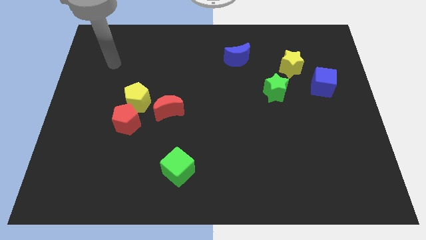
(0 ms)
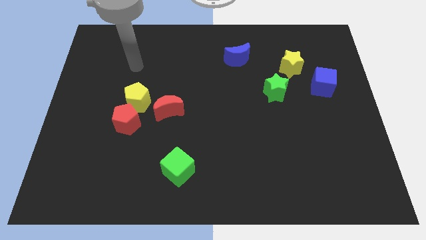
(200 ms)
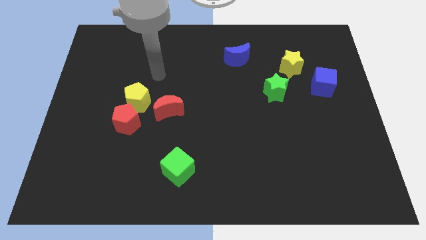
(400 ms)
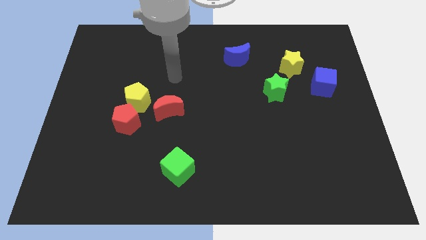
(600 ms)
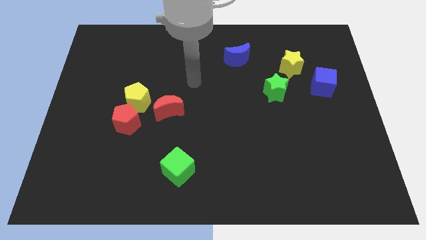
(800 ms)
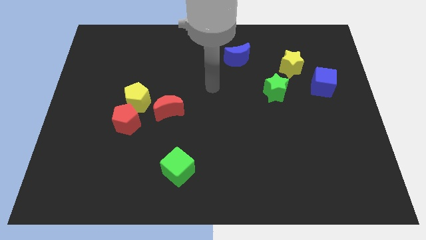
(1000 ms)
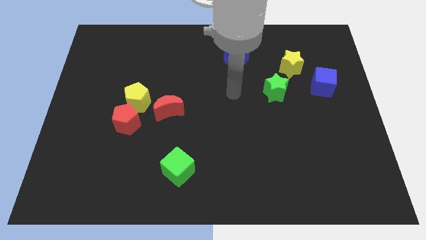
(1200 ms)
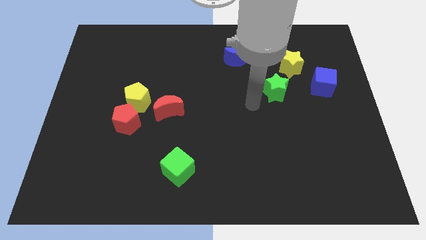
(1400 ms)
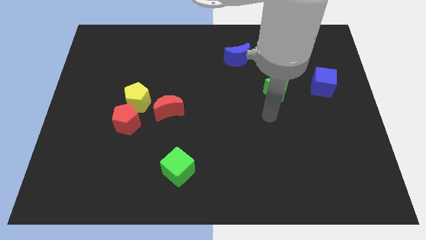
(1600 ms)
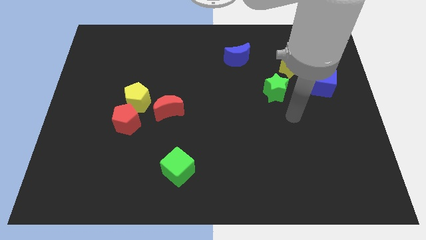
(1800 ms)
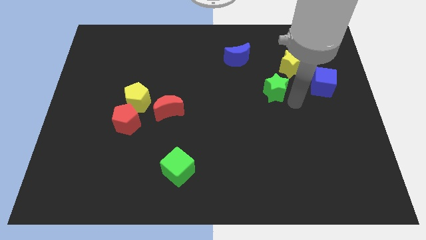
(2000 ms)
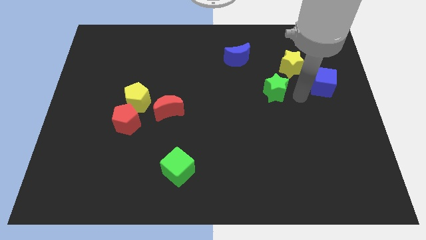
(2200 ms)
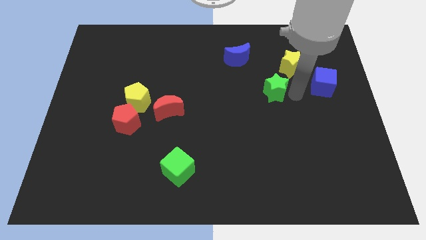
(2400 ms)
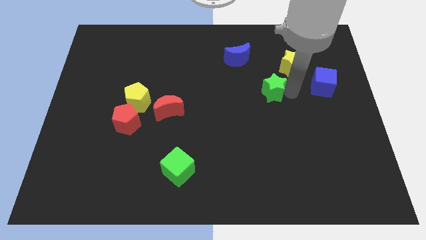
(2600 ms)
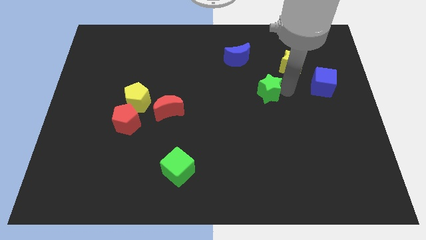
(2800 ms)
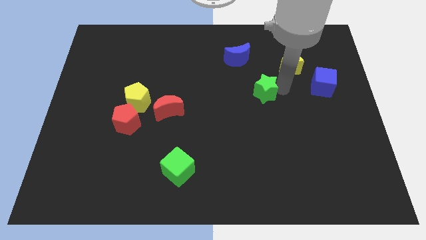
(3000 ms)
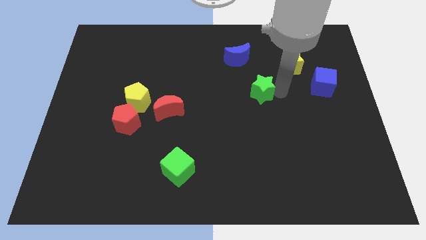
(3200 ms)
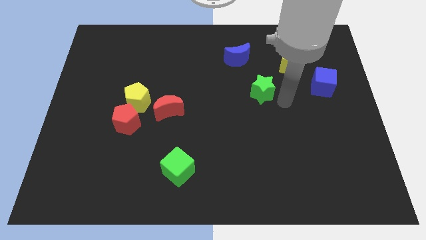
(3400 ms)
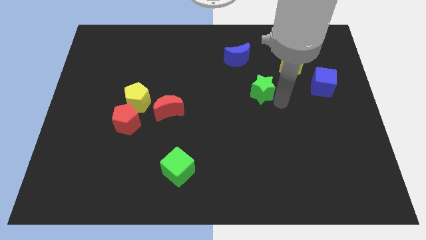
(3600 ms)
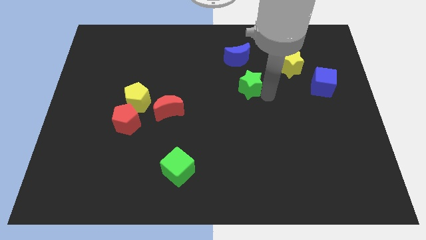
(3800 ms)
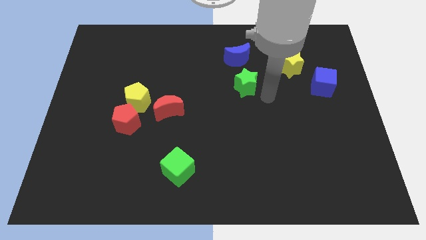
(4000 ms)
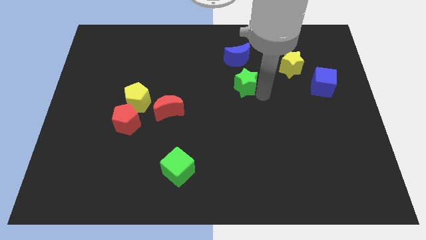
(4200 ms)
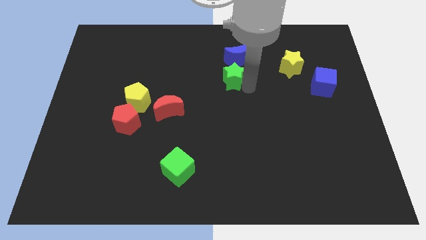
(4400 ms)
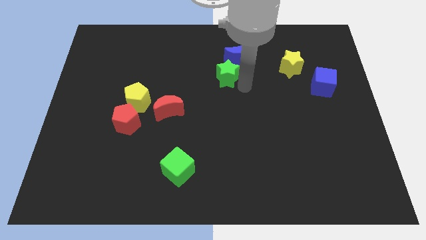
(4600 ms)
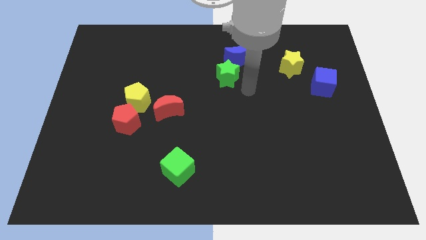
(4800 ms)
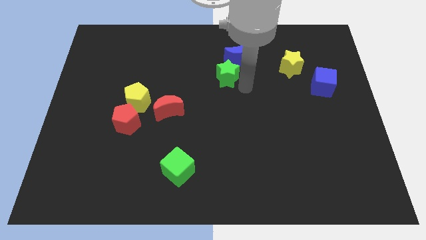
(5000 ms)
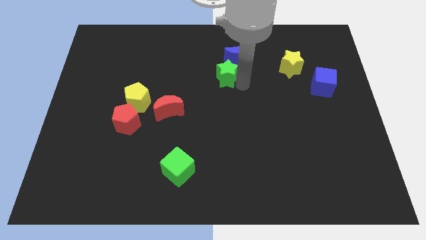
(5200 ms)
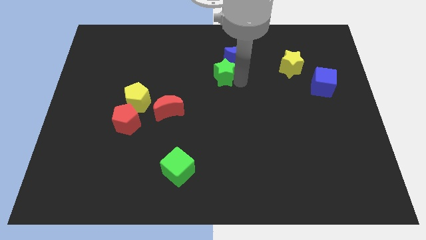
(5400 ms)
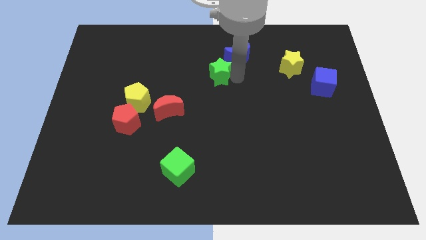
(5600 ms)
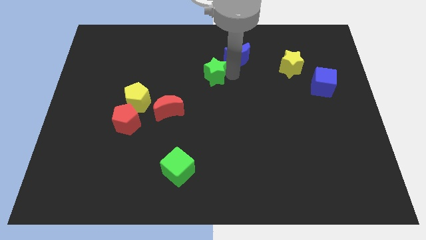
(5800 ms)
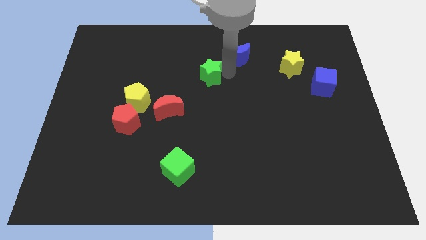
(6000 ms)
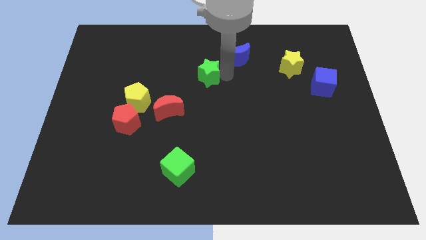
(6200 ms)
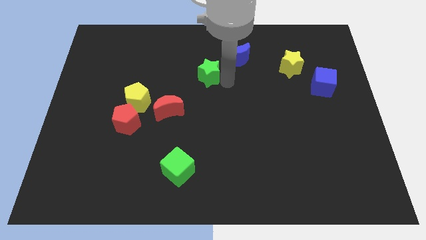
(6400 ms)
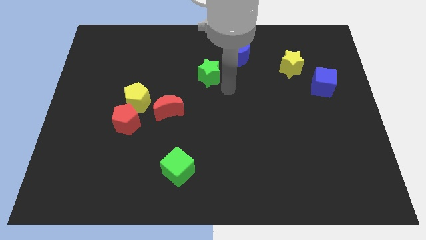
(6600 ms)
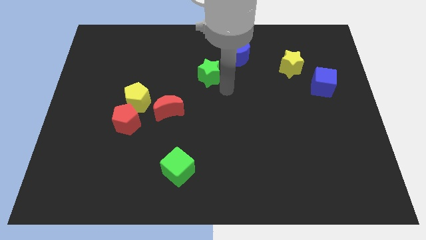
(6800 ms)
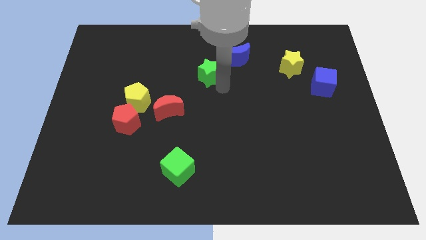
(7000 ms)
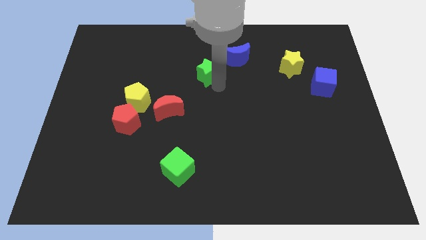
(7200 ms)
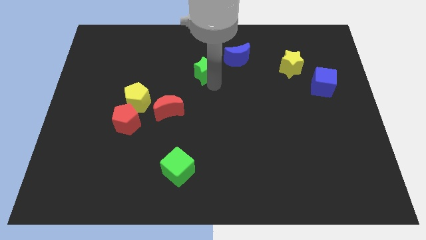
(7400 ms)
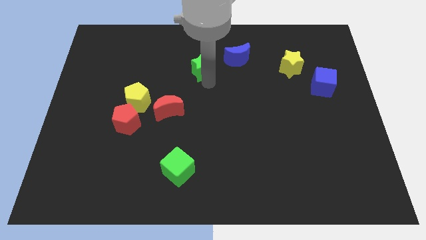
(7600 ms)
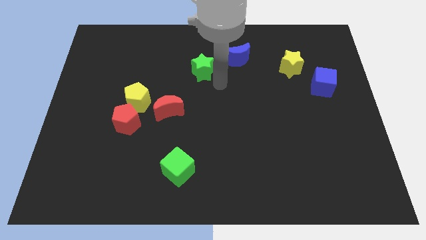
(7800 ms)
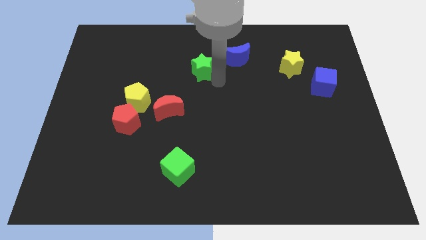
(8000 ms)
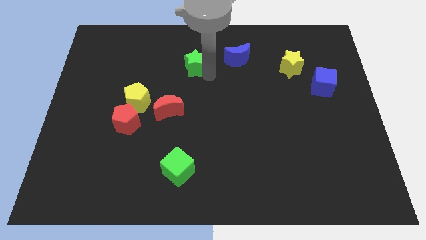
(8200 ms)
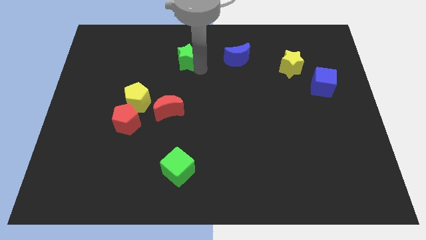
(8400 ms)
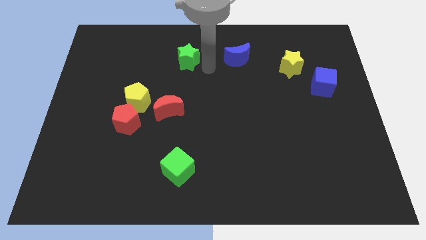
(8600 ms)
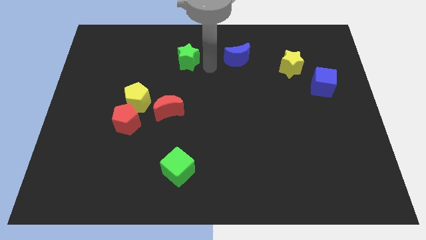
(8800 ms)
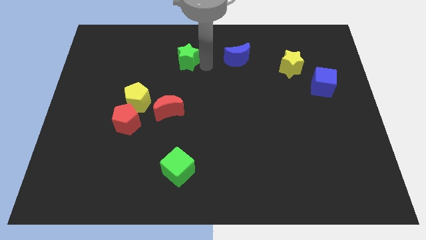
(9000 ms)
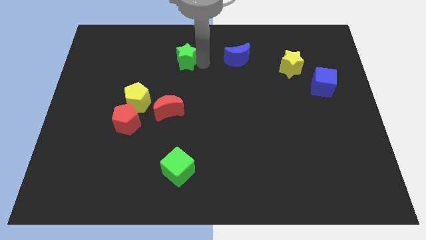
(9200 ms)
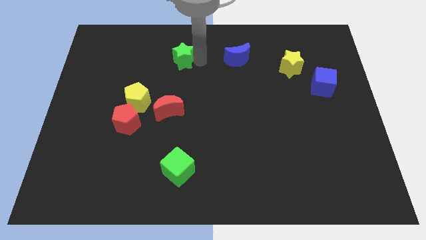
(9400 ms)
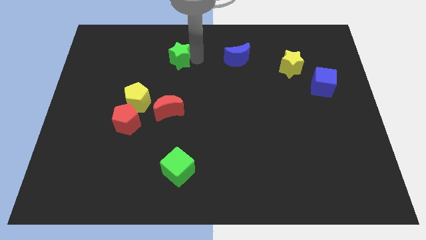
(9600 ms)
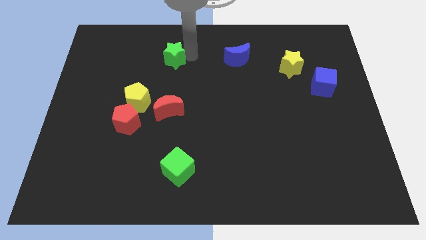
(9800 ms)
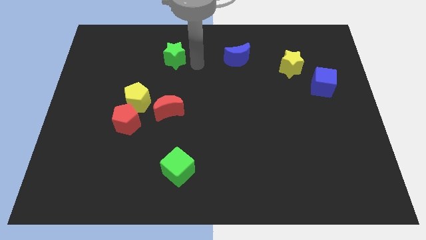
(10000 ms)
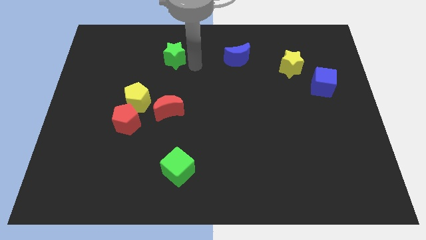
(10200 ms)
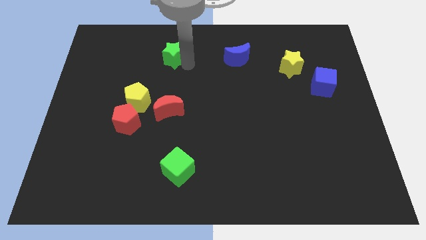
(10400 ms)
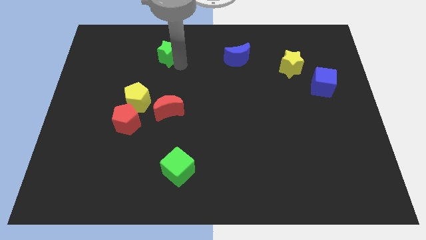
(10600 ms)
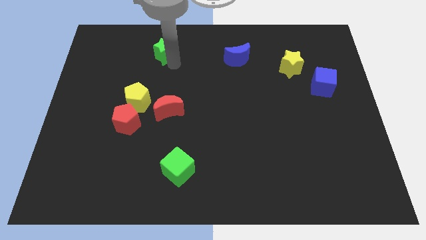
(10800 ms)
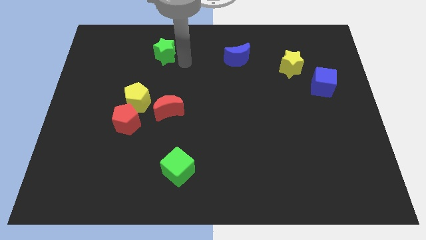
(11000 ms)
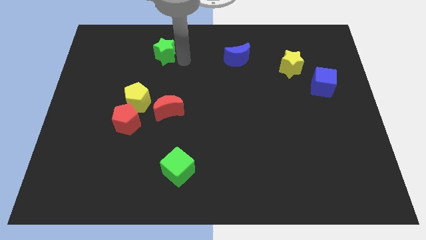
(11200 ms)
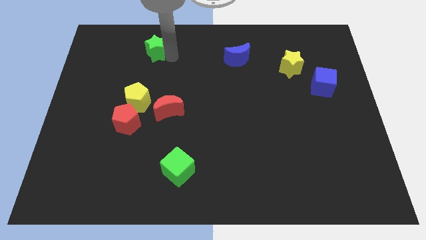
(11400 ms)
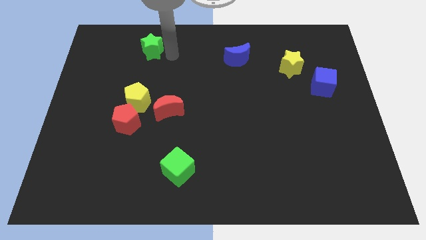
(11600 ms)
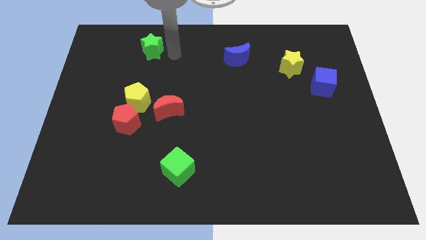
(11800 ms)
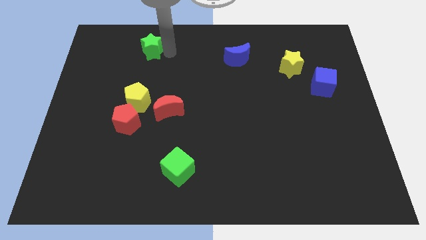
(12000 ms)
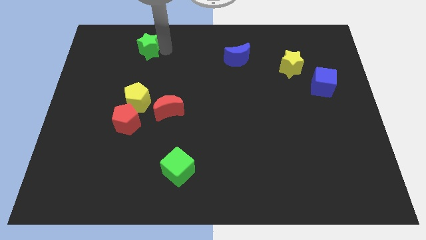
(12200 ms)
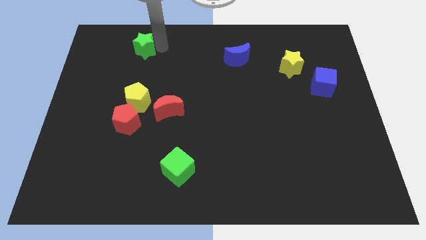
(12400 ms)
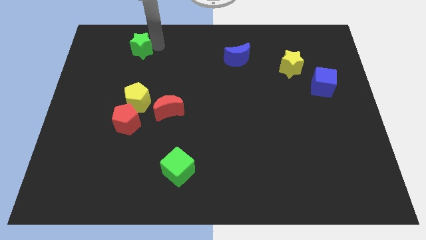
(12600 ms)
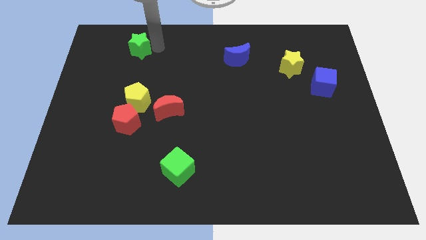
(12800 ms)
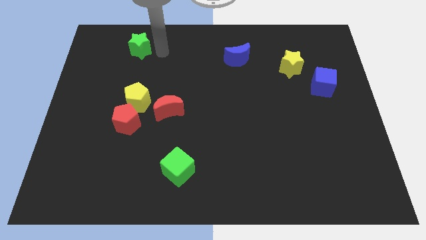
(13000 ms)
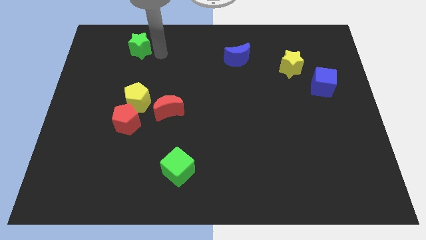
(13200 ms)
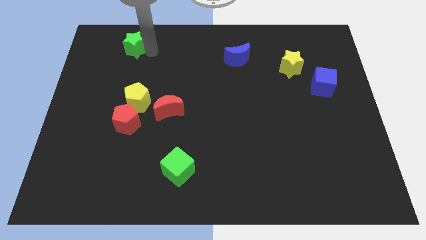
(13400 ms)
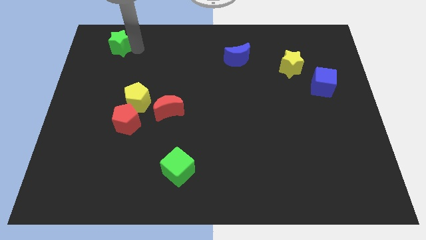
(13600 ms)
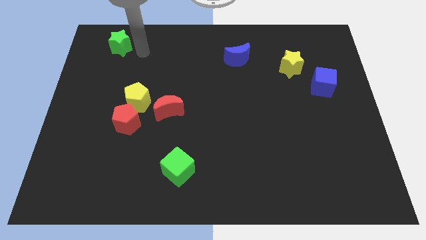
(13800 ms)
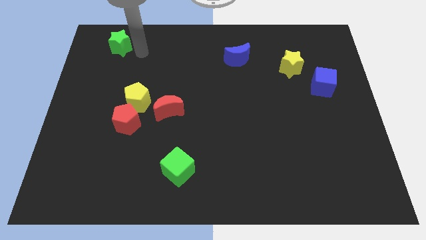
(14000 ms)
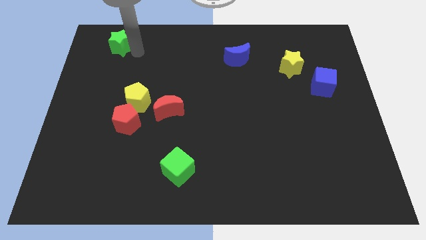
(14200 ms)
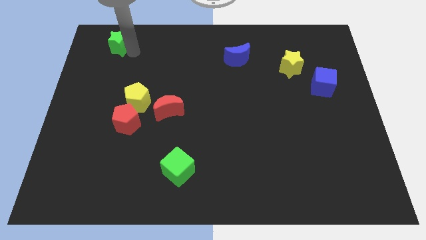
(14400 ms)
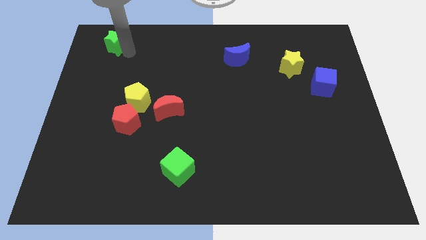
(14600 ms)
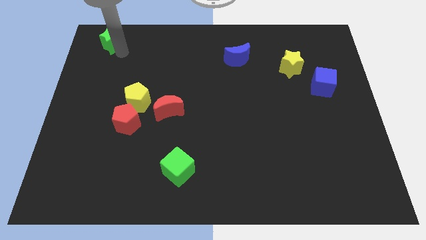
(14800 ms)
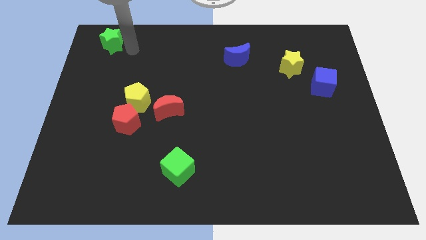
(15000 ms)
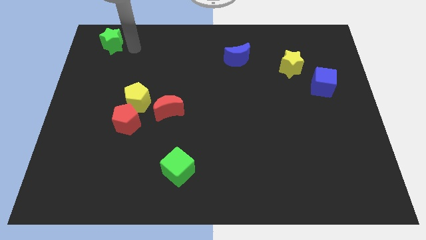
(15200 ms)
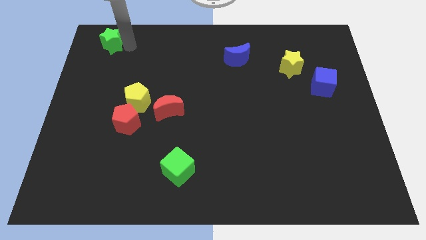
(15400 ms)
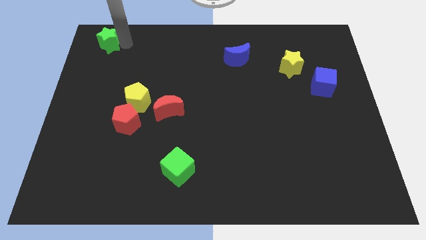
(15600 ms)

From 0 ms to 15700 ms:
move the green star to the upper left corner
